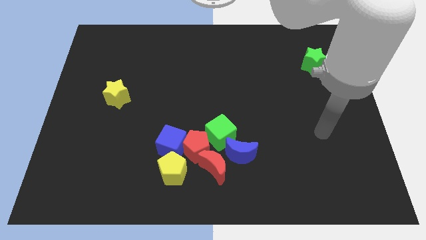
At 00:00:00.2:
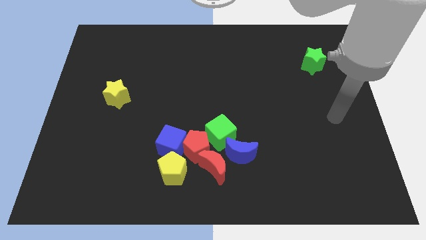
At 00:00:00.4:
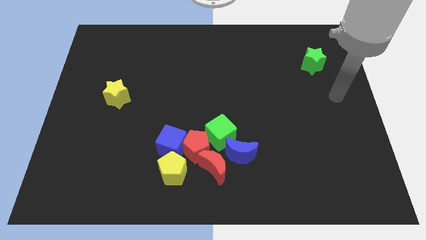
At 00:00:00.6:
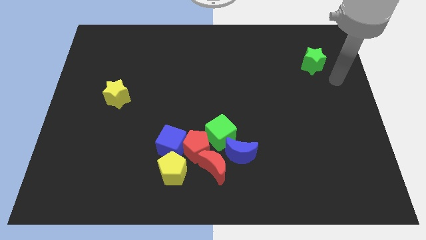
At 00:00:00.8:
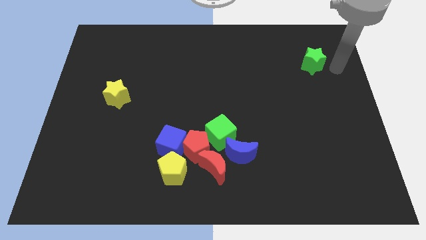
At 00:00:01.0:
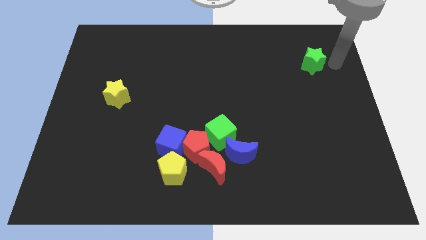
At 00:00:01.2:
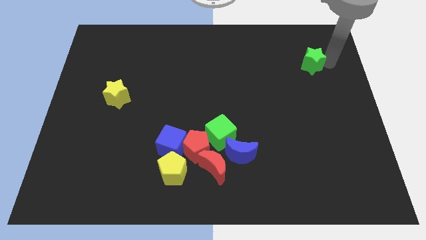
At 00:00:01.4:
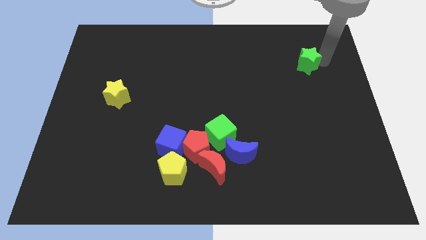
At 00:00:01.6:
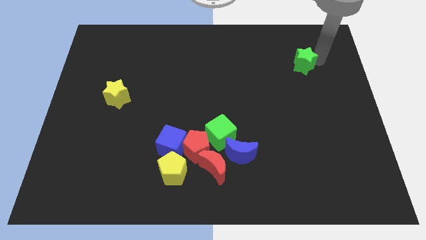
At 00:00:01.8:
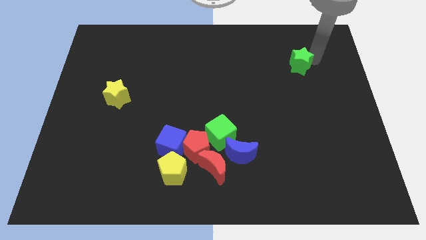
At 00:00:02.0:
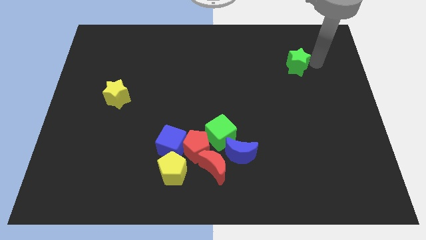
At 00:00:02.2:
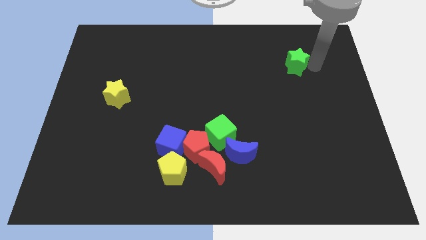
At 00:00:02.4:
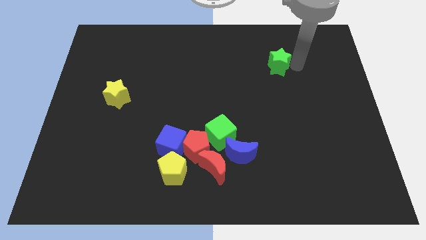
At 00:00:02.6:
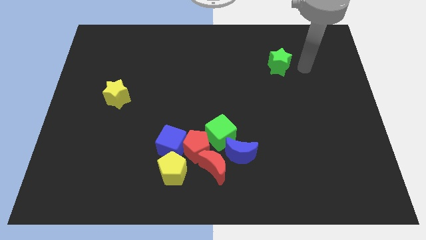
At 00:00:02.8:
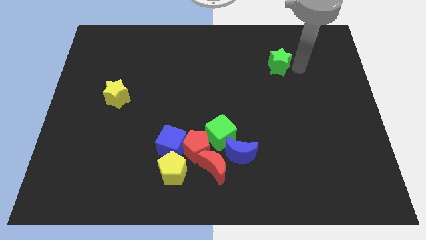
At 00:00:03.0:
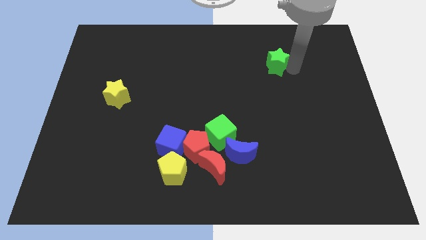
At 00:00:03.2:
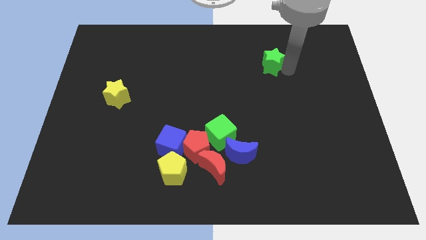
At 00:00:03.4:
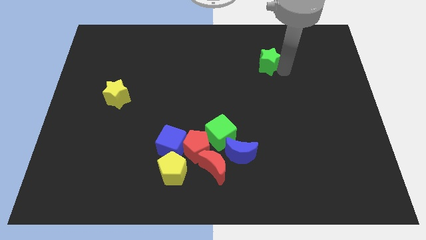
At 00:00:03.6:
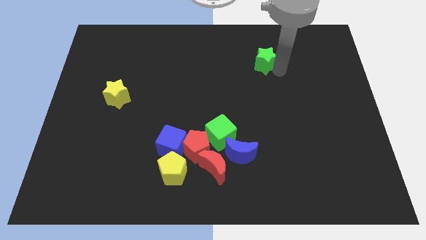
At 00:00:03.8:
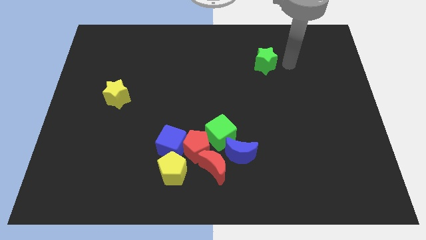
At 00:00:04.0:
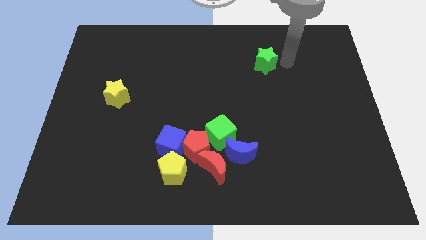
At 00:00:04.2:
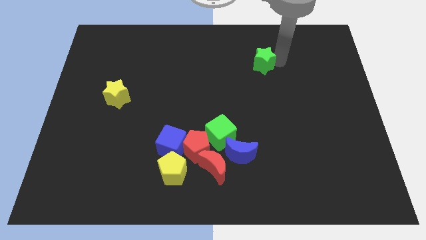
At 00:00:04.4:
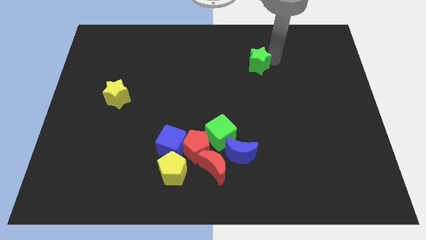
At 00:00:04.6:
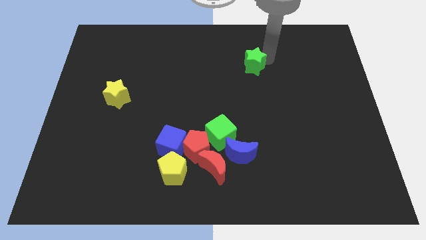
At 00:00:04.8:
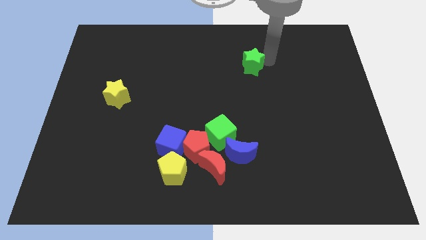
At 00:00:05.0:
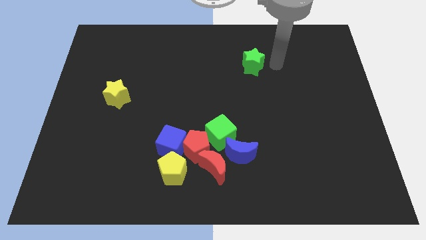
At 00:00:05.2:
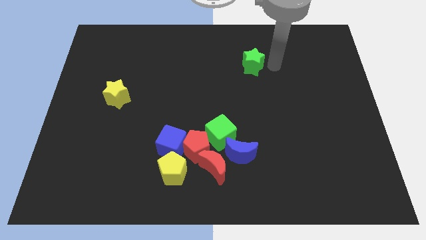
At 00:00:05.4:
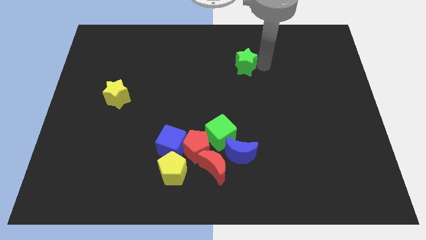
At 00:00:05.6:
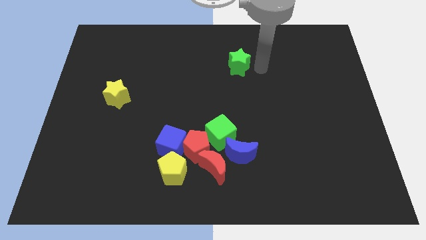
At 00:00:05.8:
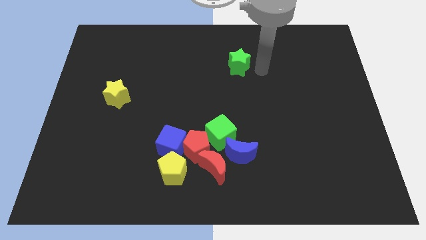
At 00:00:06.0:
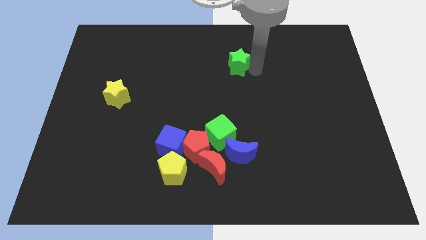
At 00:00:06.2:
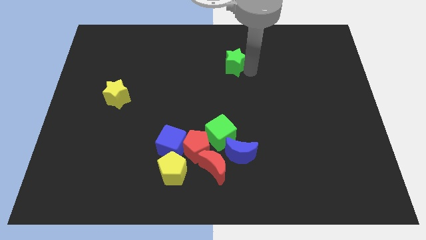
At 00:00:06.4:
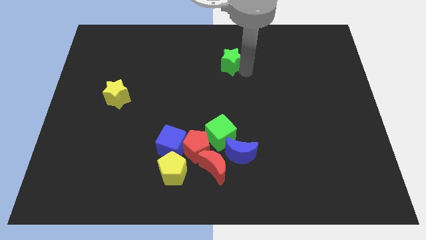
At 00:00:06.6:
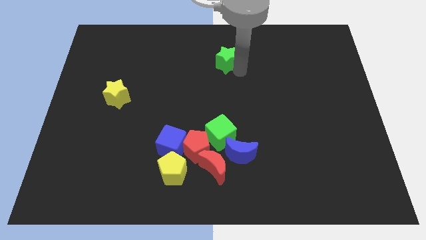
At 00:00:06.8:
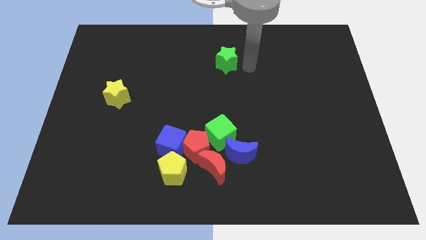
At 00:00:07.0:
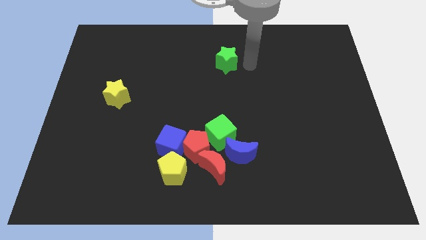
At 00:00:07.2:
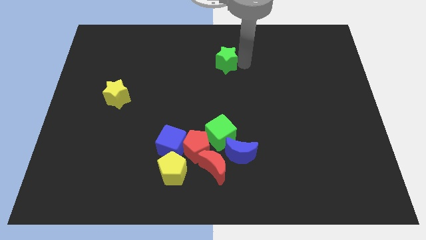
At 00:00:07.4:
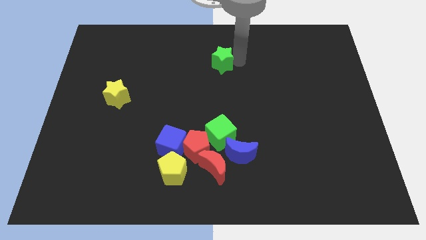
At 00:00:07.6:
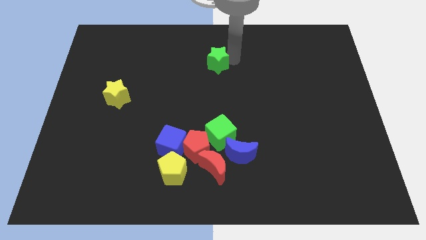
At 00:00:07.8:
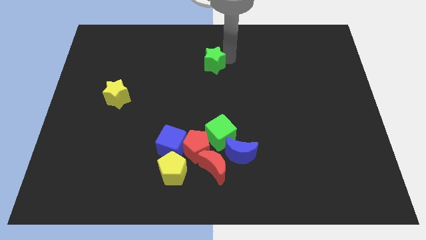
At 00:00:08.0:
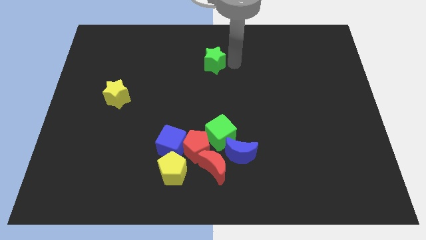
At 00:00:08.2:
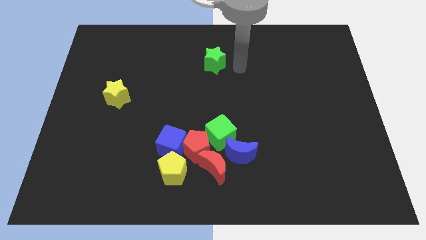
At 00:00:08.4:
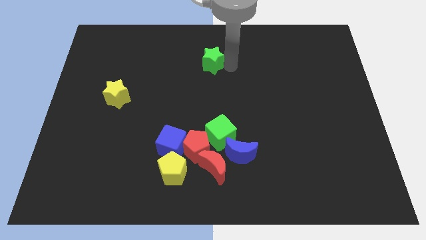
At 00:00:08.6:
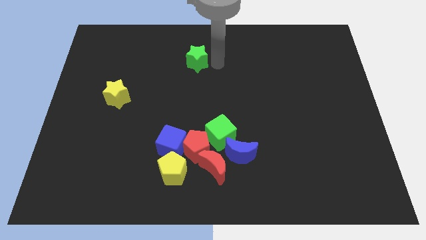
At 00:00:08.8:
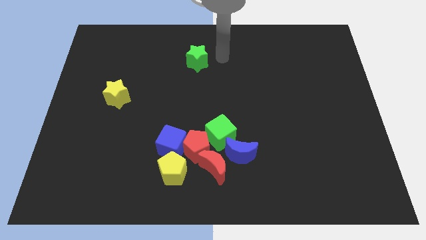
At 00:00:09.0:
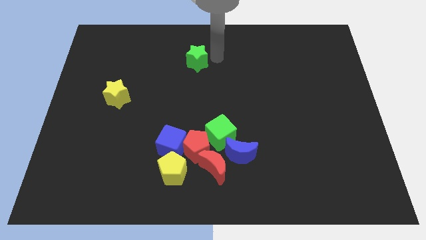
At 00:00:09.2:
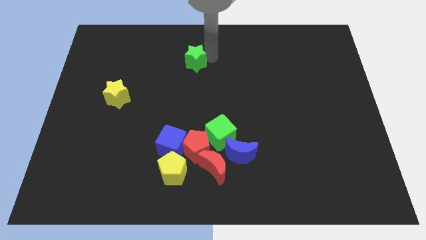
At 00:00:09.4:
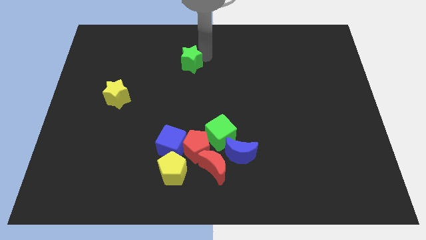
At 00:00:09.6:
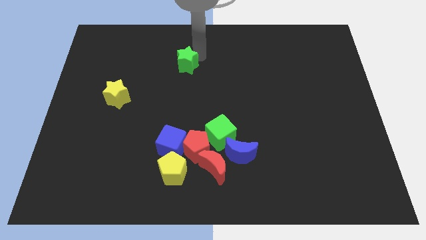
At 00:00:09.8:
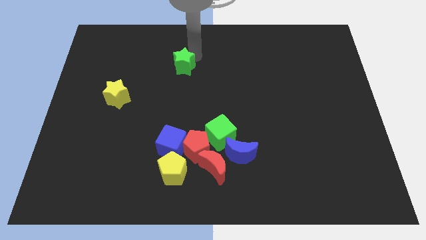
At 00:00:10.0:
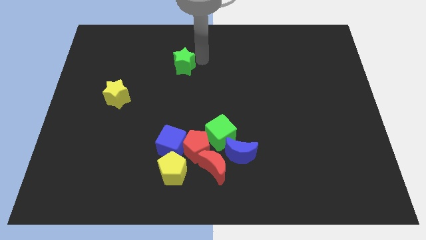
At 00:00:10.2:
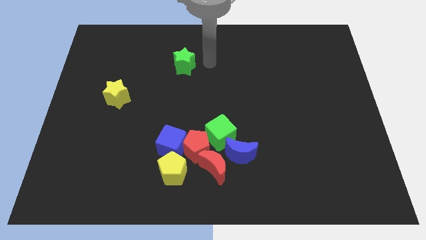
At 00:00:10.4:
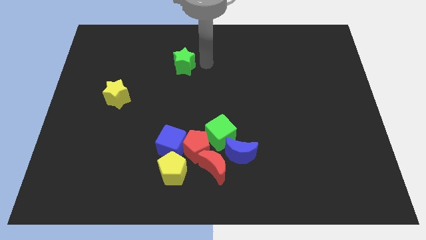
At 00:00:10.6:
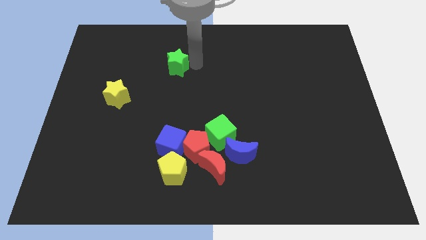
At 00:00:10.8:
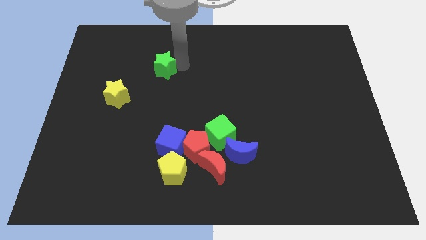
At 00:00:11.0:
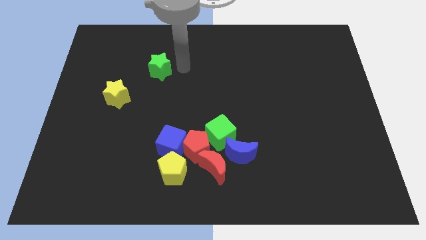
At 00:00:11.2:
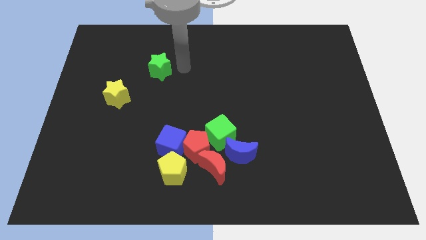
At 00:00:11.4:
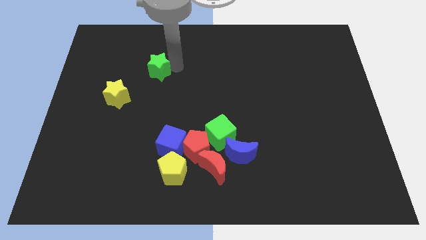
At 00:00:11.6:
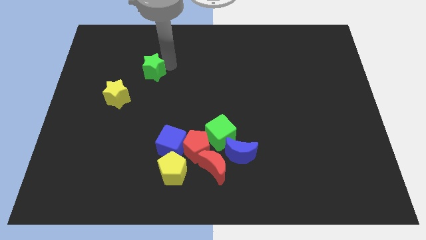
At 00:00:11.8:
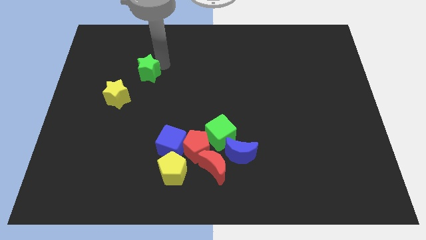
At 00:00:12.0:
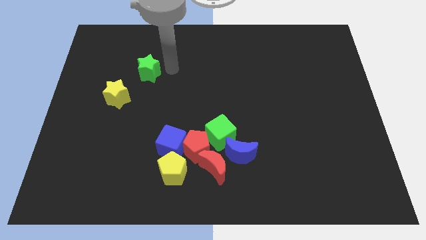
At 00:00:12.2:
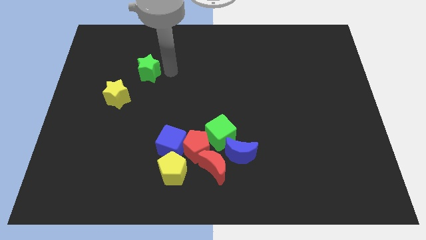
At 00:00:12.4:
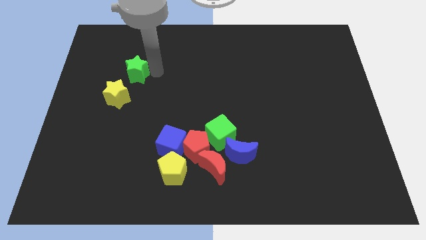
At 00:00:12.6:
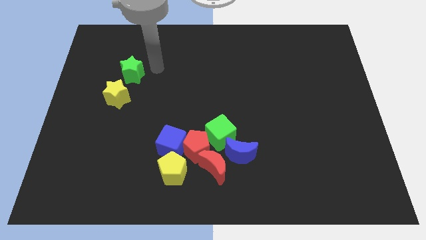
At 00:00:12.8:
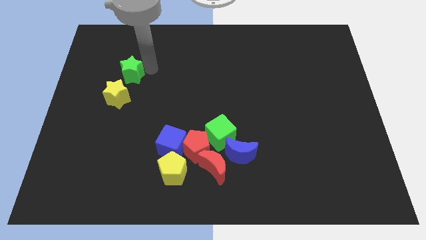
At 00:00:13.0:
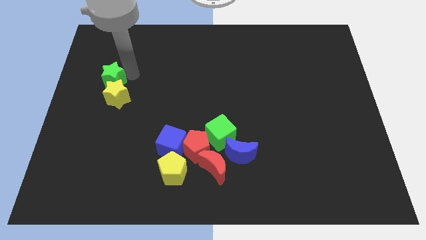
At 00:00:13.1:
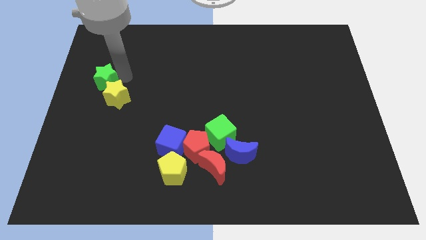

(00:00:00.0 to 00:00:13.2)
move the green star to the center left
